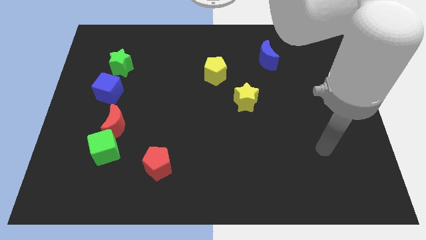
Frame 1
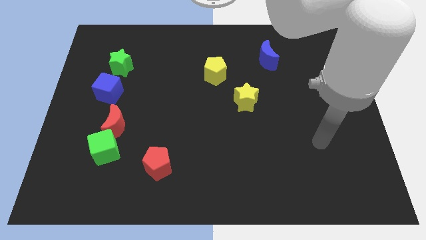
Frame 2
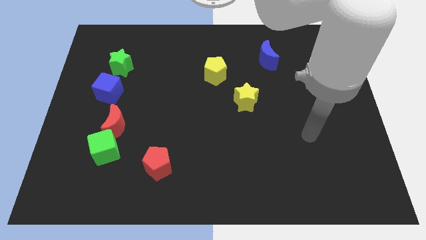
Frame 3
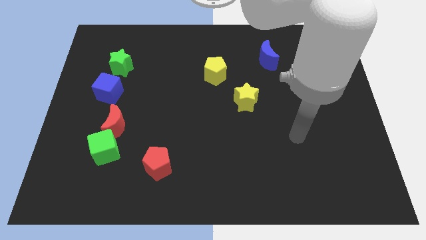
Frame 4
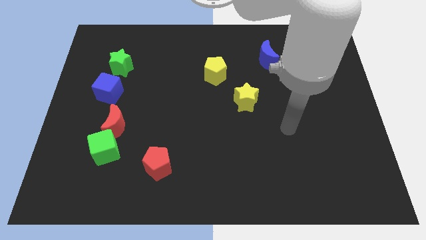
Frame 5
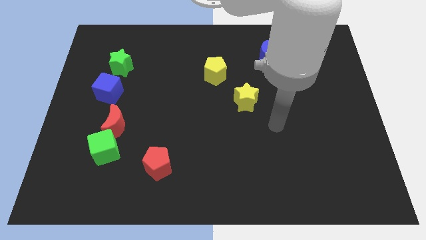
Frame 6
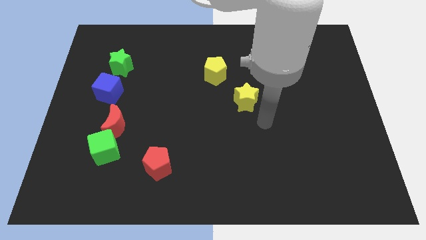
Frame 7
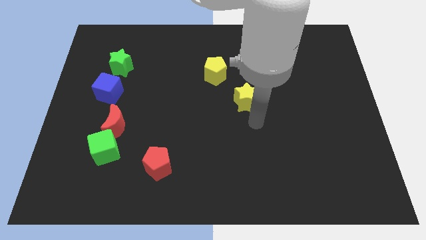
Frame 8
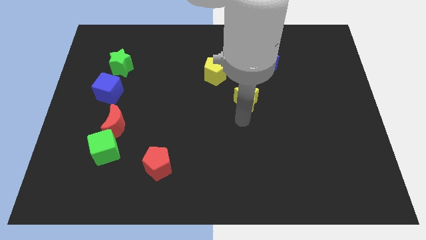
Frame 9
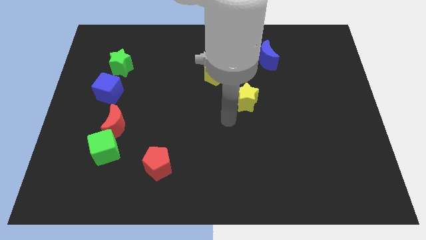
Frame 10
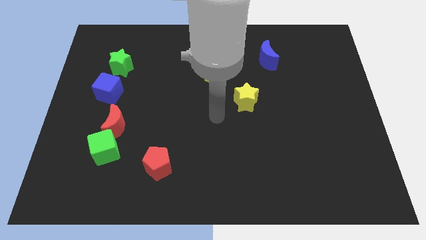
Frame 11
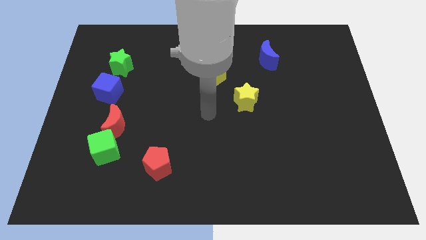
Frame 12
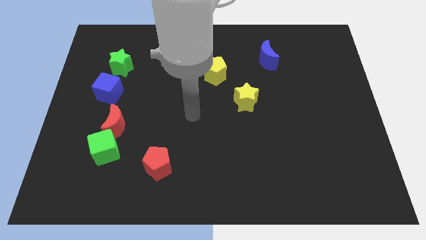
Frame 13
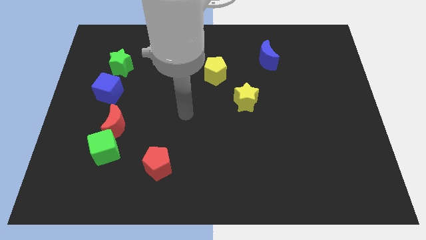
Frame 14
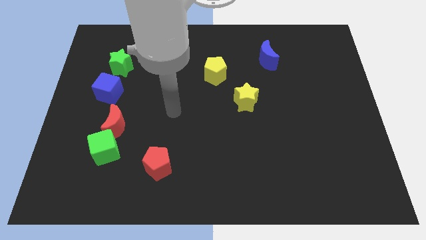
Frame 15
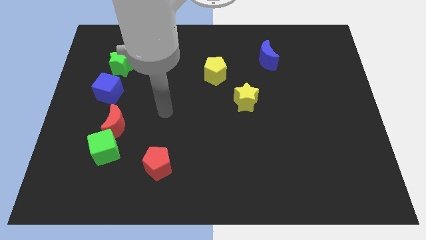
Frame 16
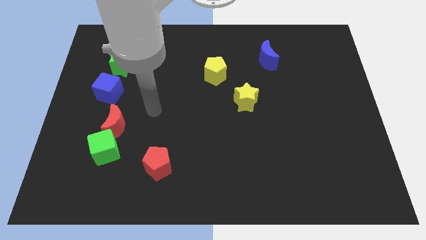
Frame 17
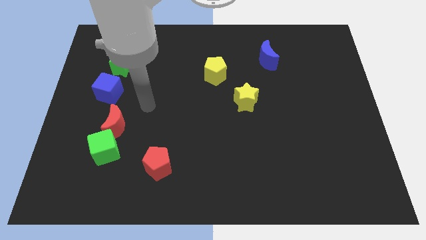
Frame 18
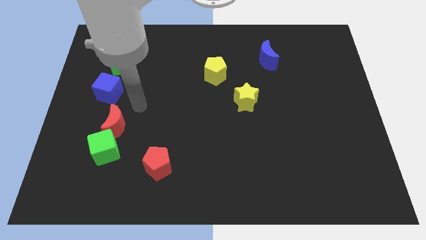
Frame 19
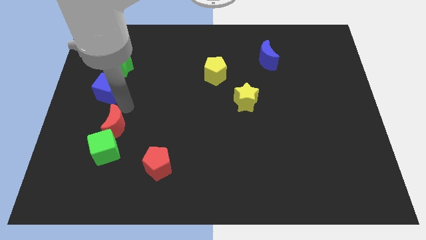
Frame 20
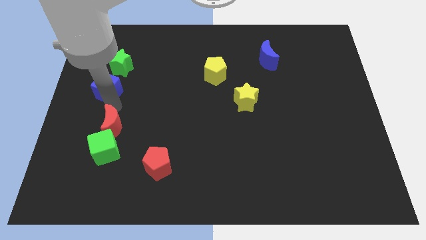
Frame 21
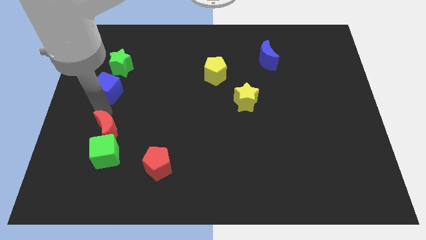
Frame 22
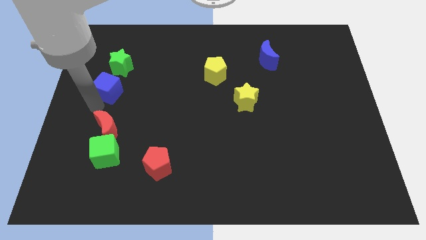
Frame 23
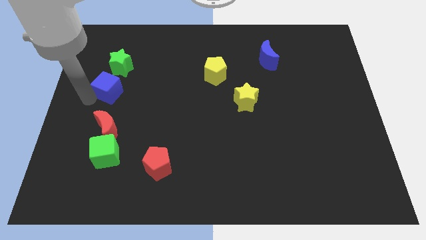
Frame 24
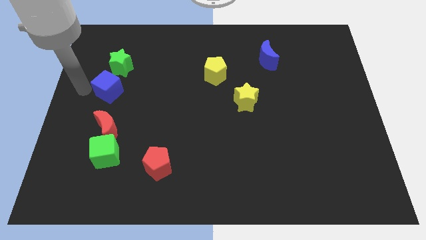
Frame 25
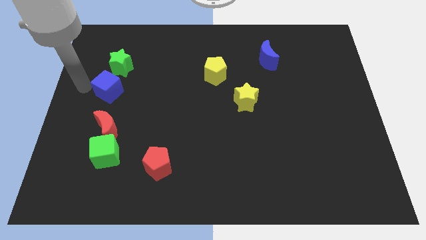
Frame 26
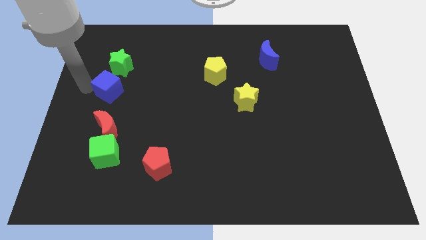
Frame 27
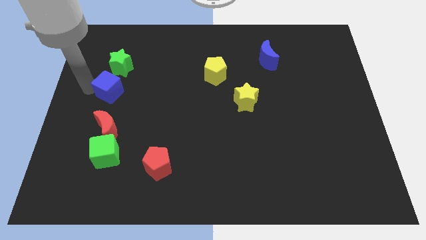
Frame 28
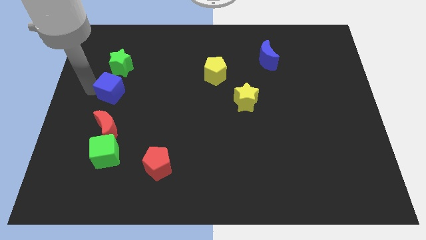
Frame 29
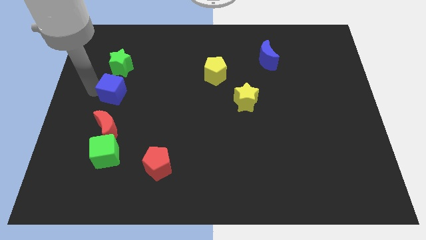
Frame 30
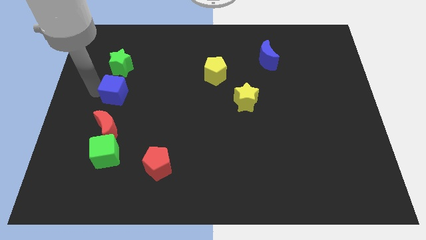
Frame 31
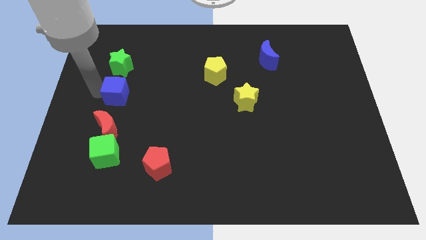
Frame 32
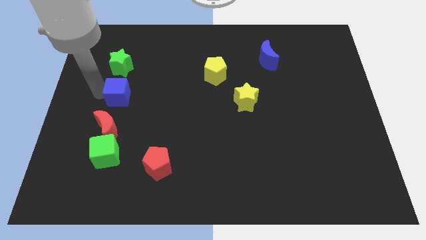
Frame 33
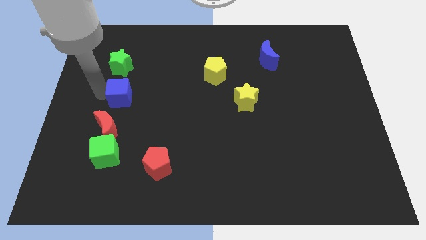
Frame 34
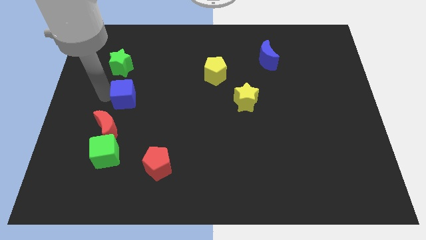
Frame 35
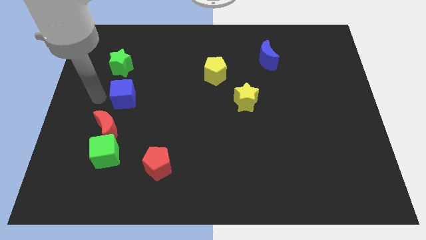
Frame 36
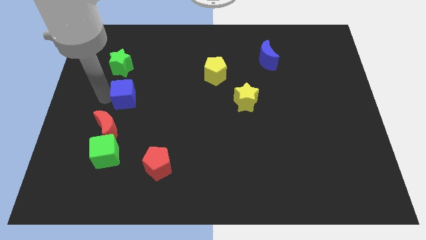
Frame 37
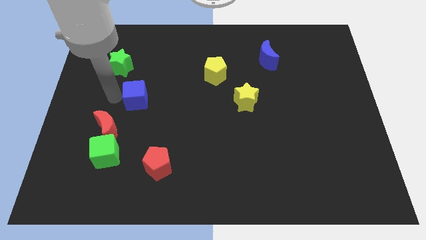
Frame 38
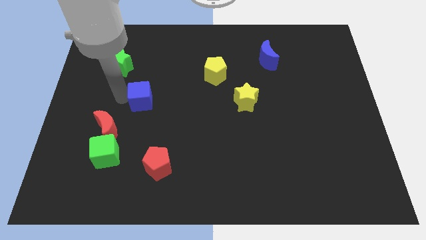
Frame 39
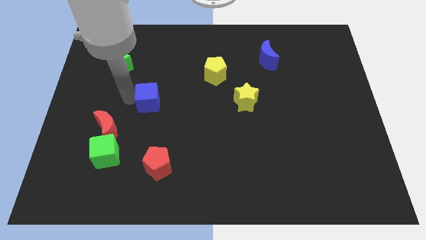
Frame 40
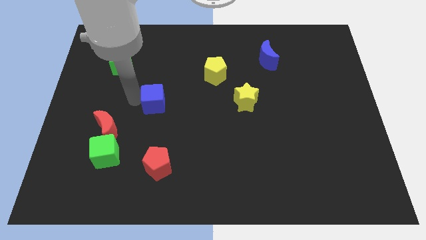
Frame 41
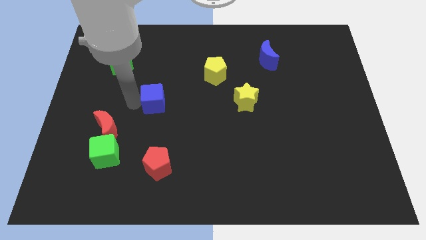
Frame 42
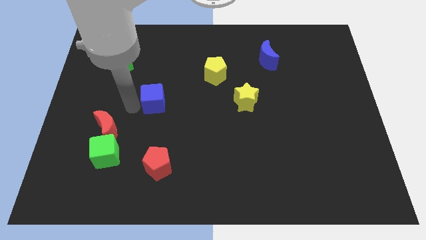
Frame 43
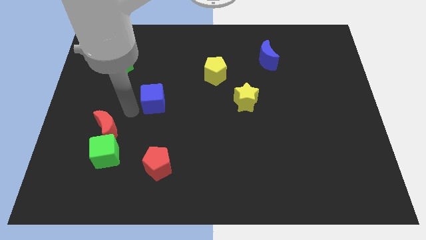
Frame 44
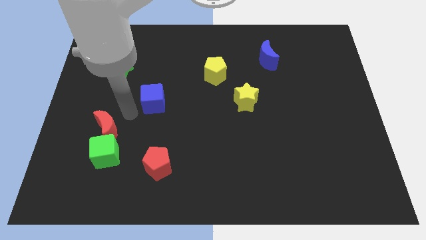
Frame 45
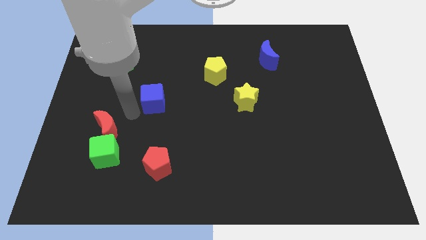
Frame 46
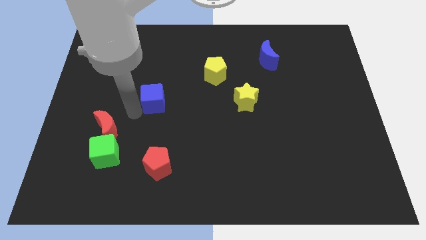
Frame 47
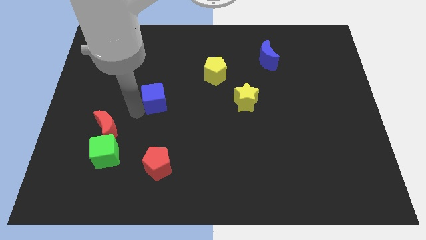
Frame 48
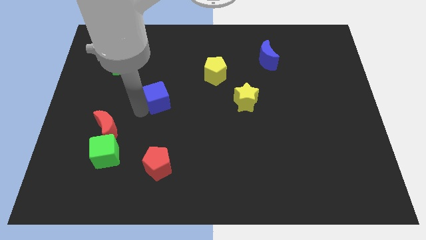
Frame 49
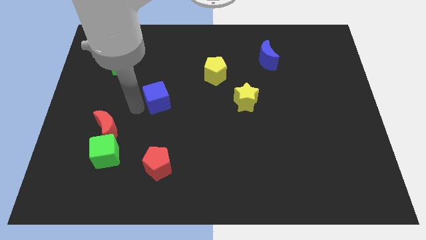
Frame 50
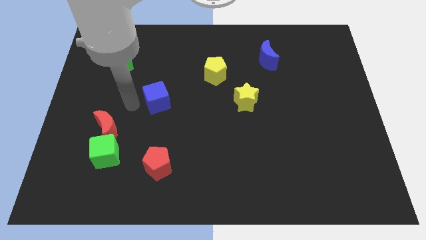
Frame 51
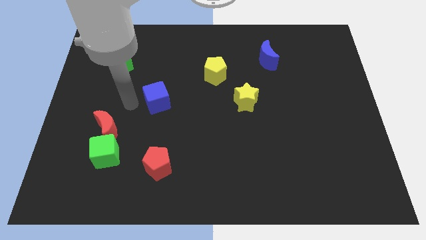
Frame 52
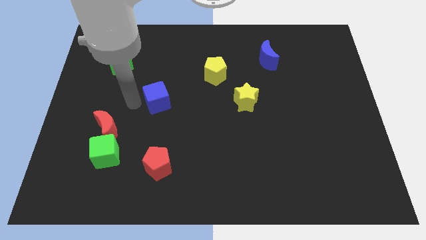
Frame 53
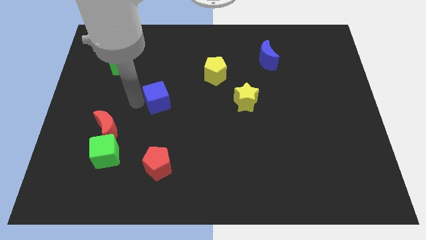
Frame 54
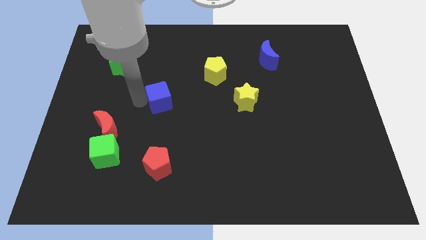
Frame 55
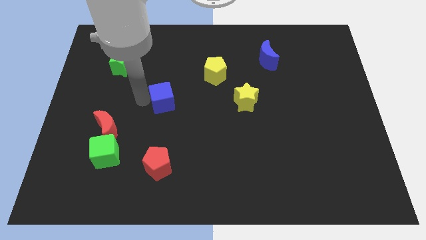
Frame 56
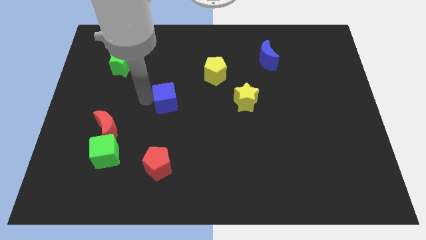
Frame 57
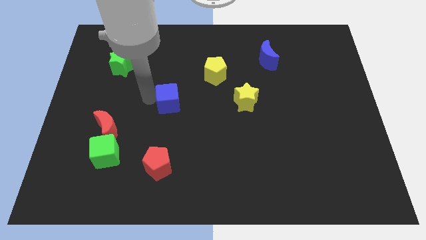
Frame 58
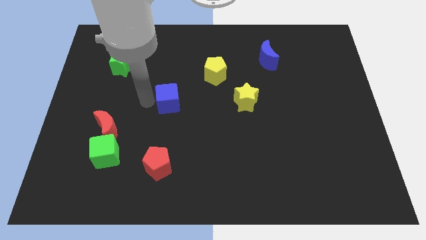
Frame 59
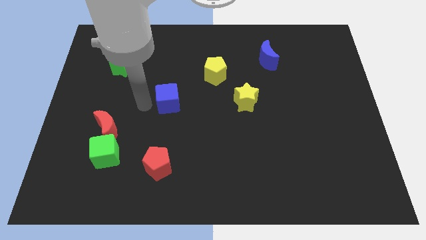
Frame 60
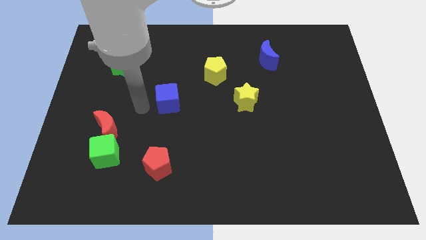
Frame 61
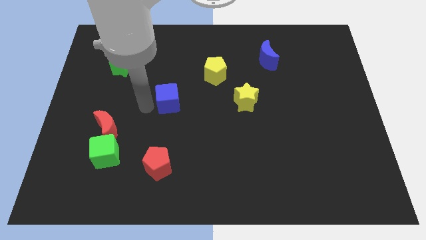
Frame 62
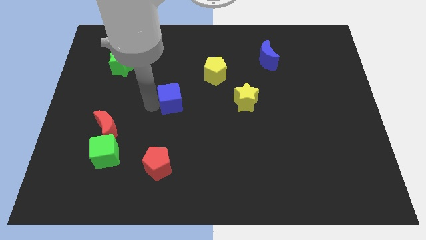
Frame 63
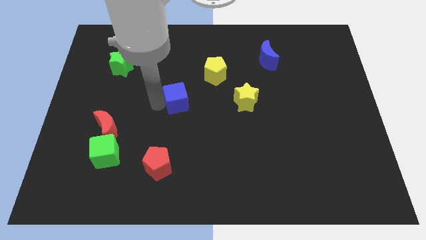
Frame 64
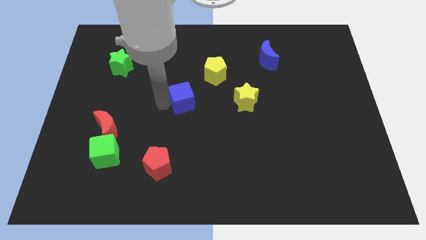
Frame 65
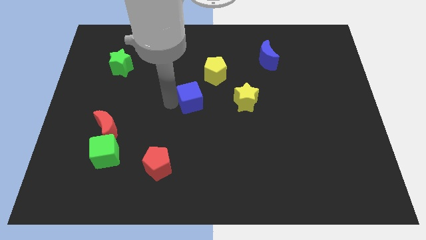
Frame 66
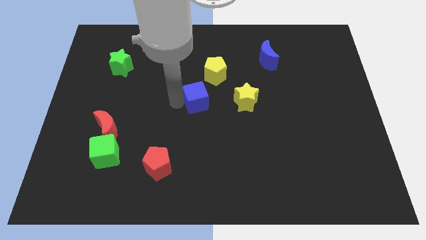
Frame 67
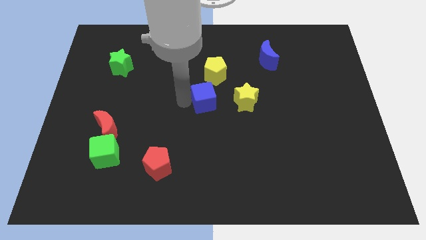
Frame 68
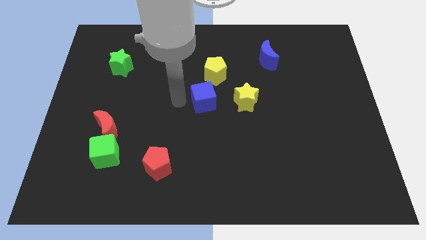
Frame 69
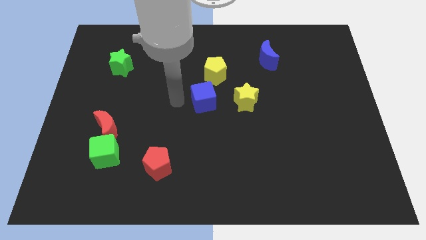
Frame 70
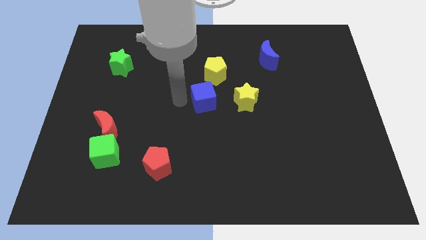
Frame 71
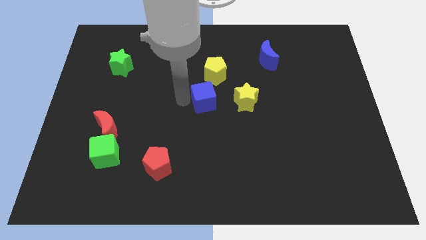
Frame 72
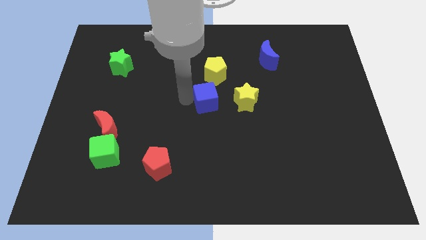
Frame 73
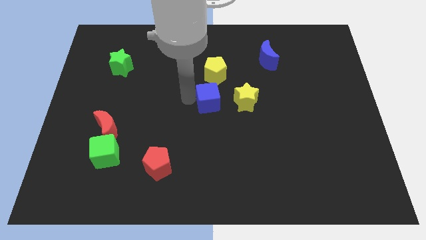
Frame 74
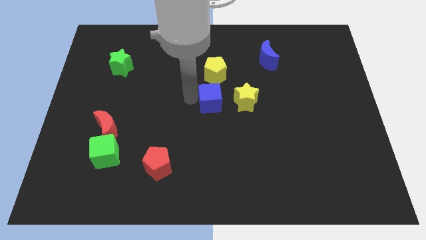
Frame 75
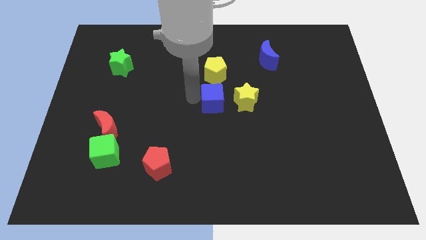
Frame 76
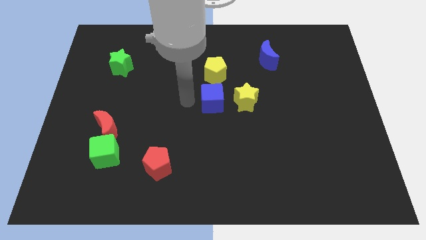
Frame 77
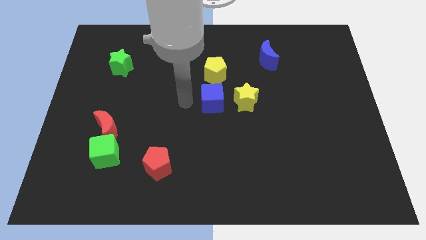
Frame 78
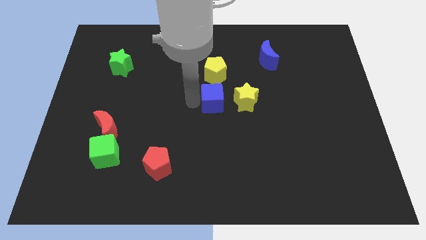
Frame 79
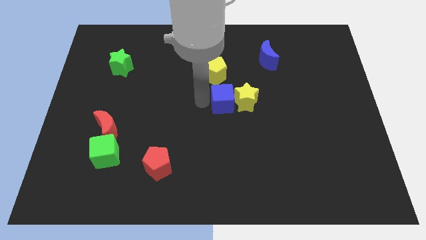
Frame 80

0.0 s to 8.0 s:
put the blue cube towards the yellow star
